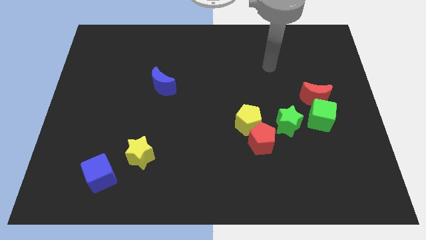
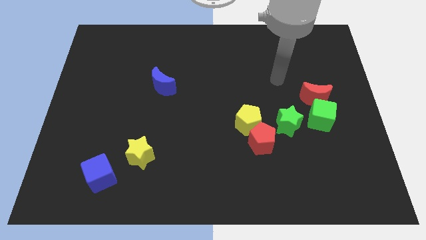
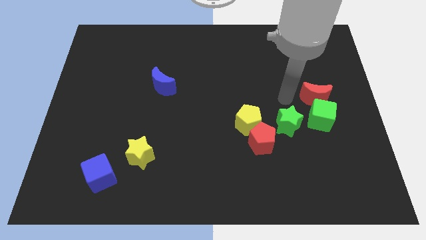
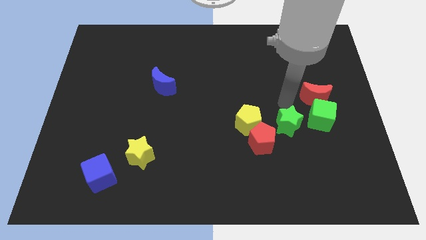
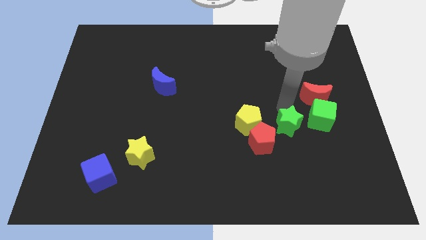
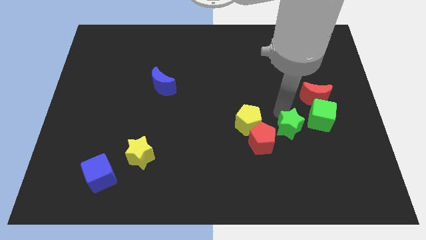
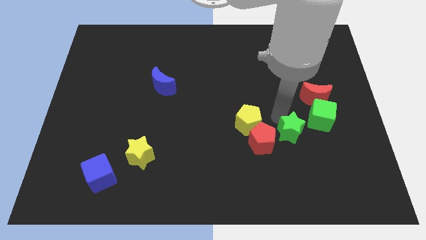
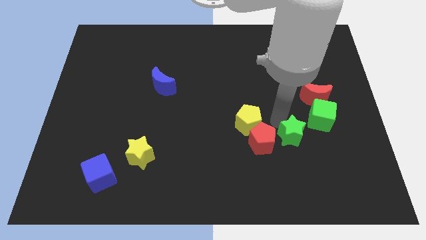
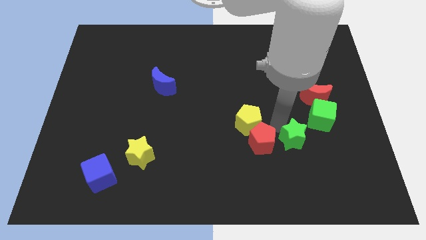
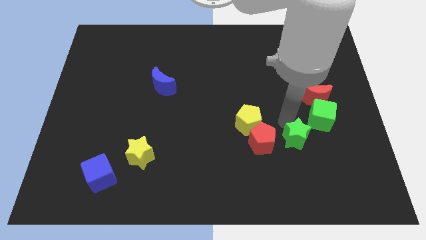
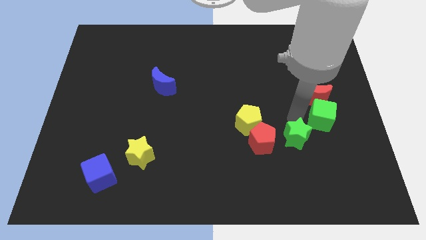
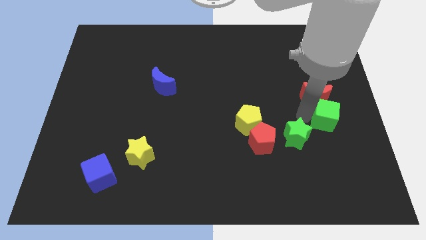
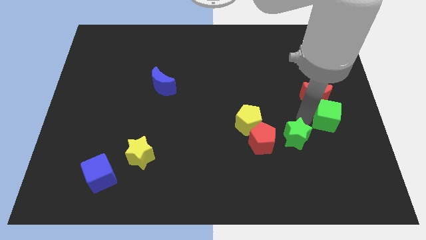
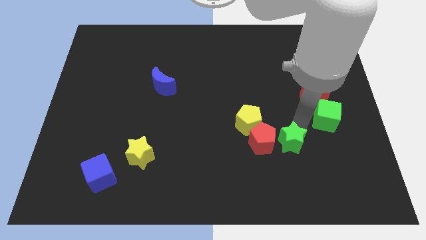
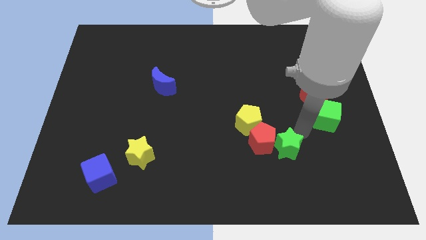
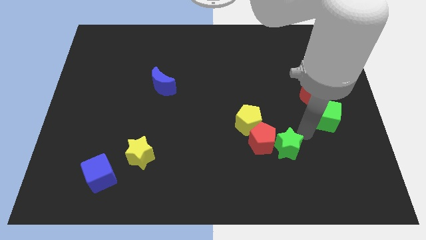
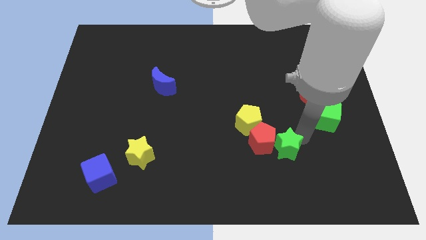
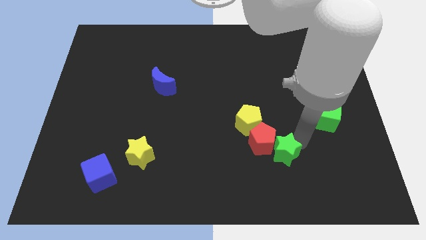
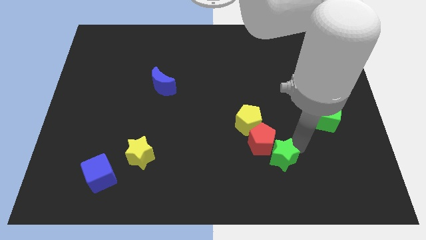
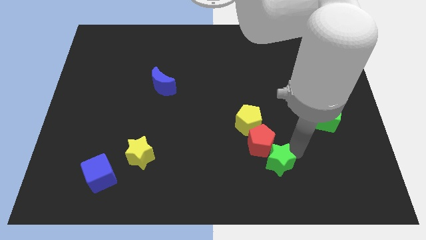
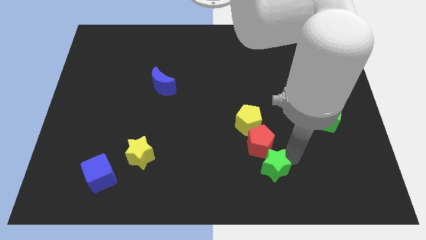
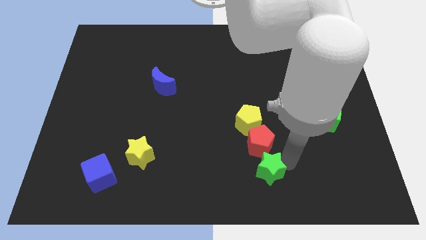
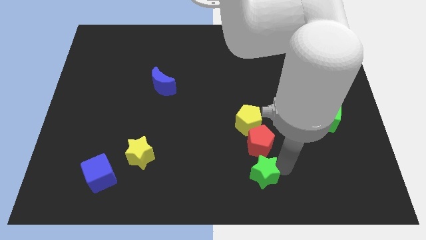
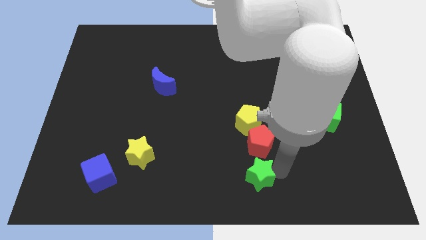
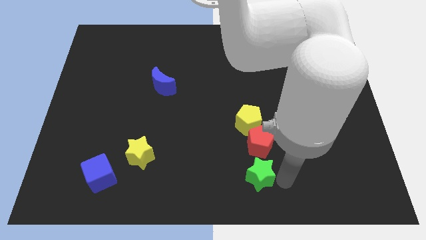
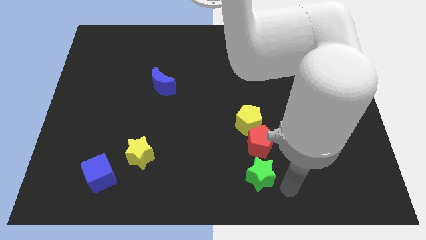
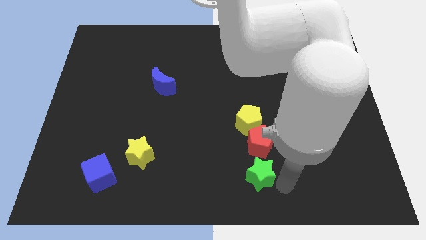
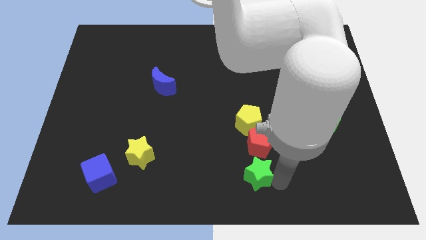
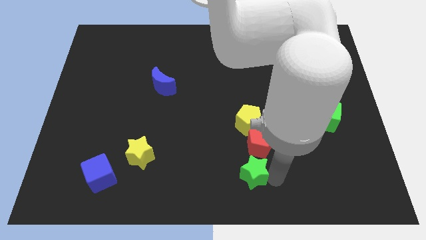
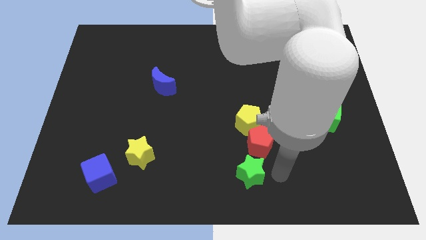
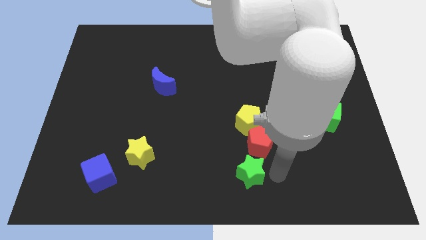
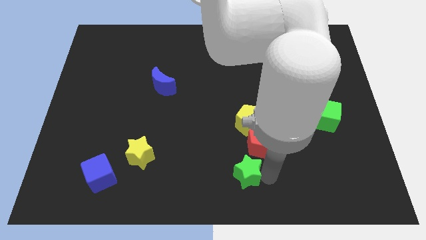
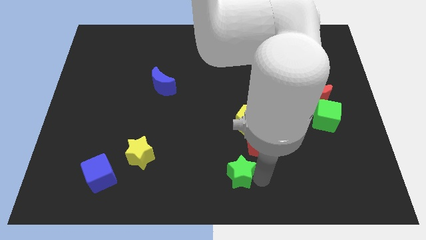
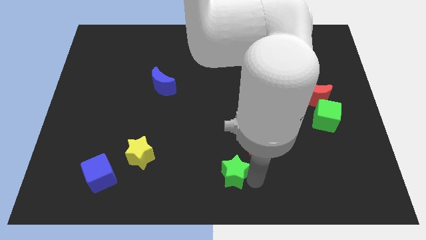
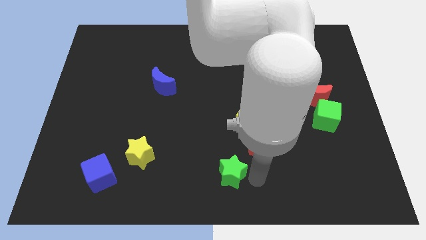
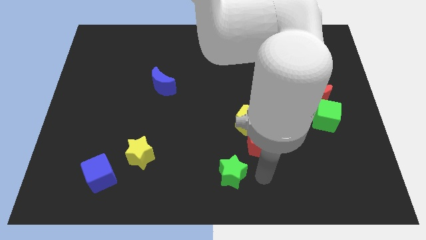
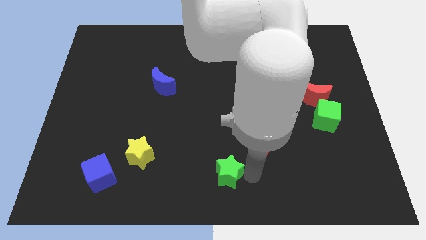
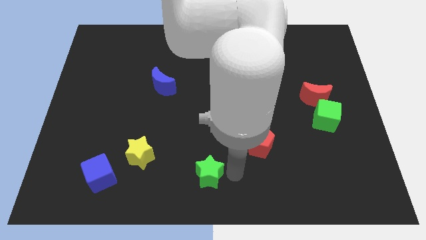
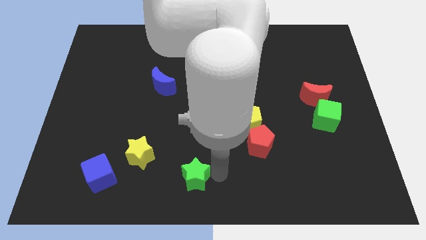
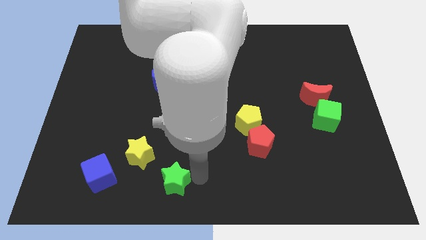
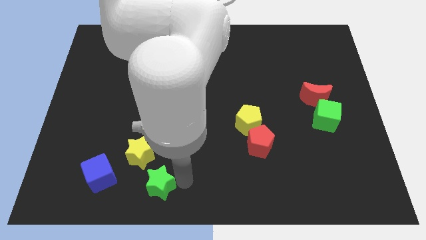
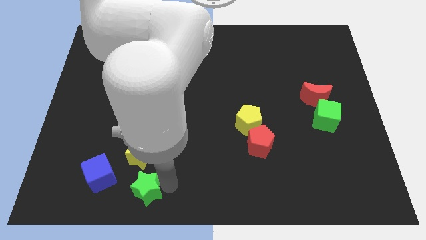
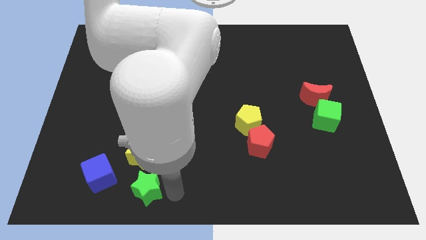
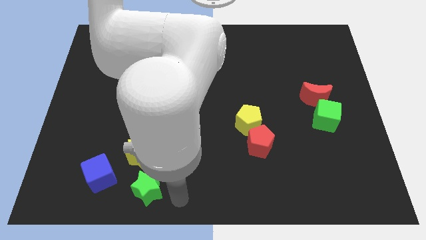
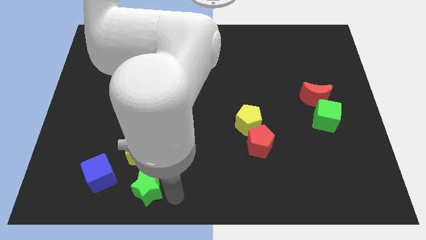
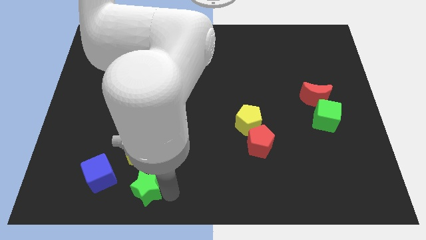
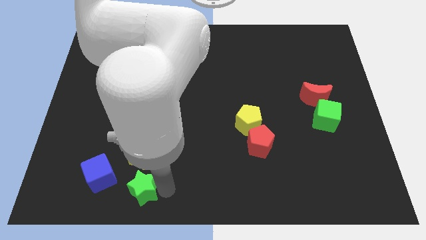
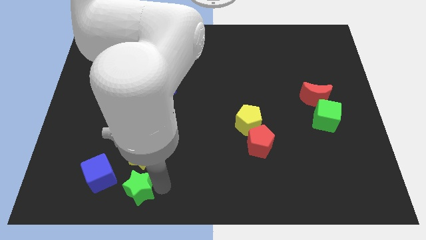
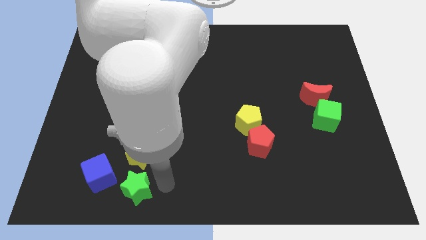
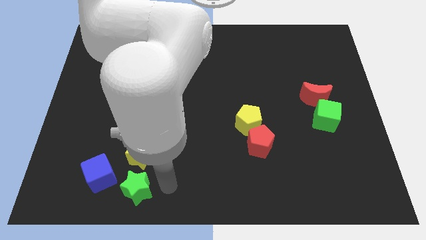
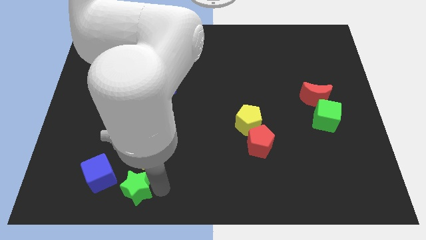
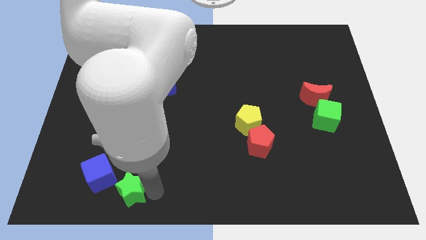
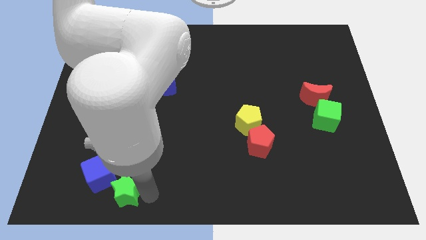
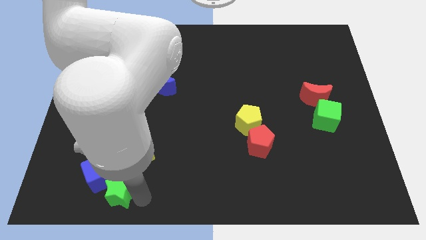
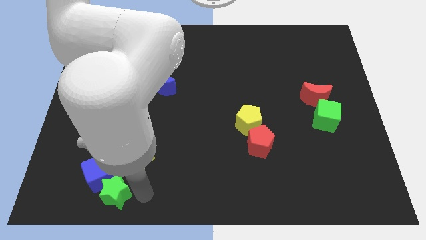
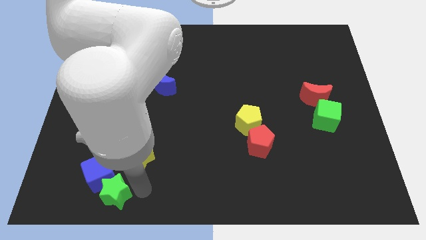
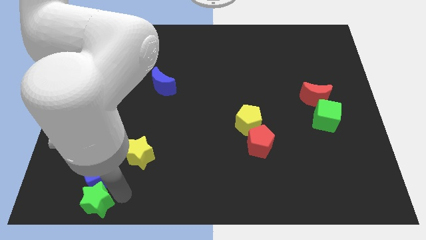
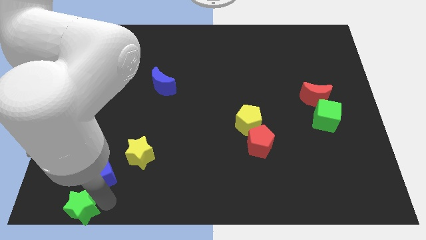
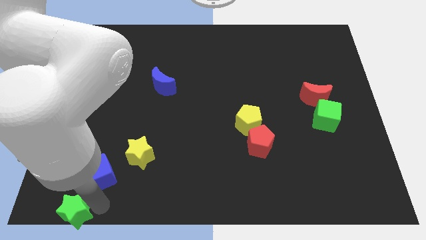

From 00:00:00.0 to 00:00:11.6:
put the green star to the bottom left of the board
